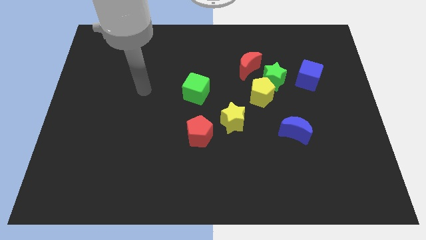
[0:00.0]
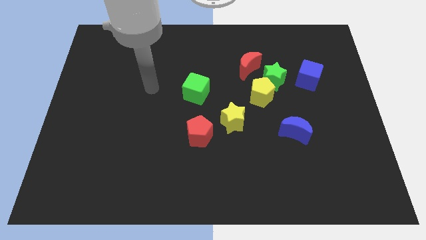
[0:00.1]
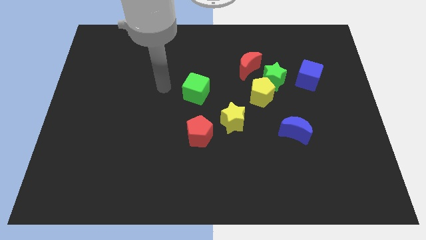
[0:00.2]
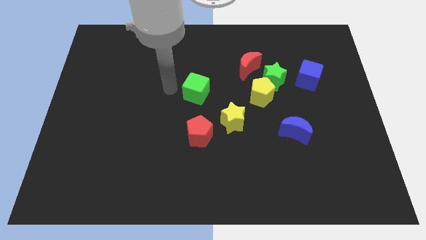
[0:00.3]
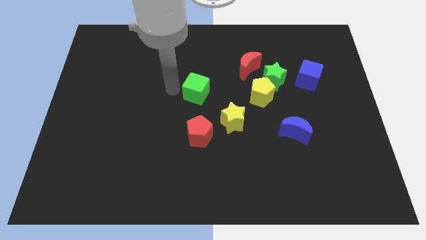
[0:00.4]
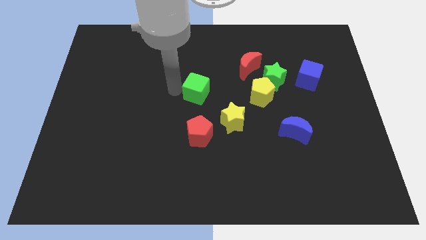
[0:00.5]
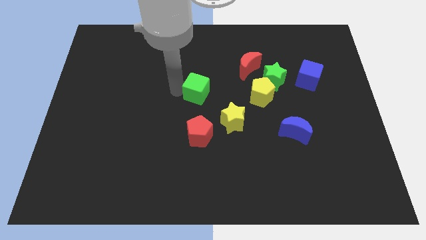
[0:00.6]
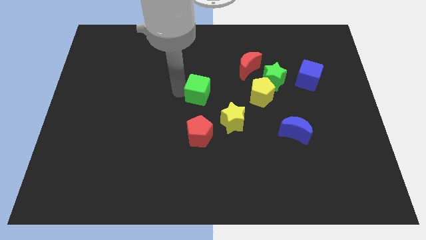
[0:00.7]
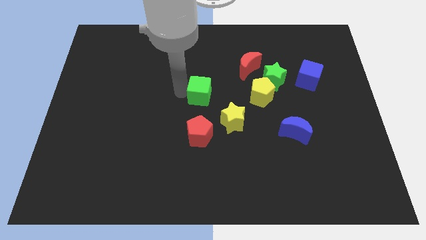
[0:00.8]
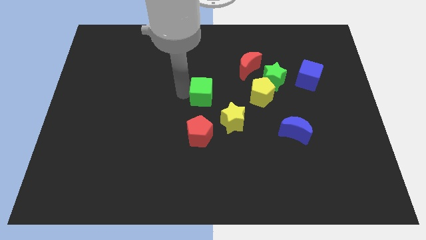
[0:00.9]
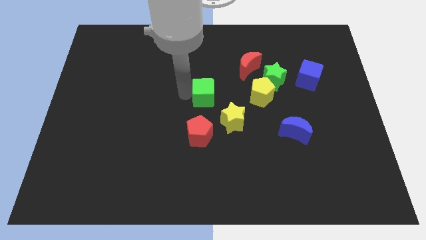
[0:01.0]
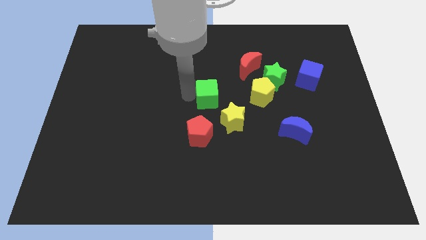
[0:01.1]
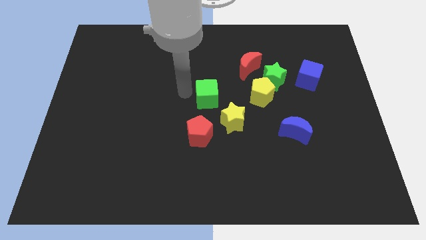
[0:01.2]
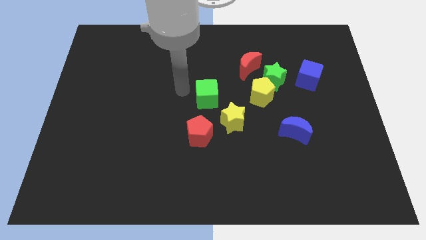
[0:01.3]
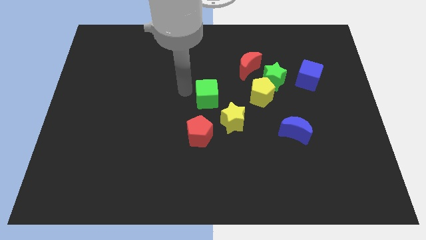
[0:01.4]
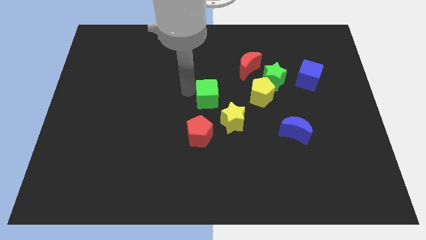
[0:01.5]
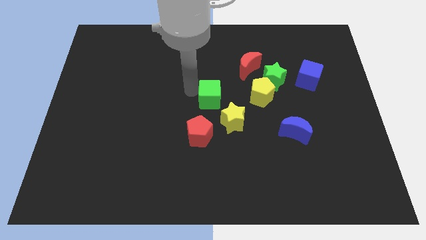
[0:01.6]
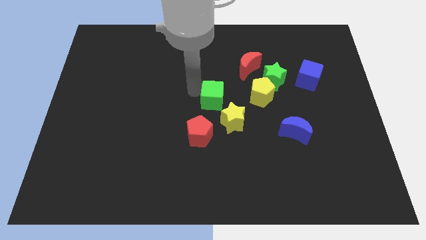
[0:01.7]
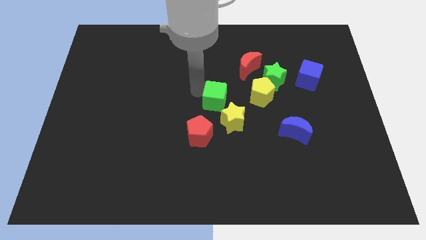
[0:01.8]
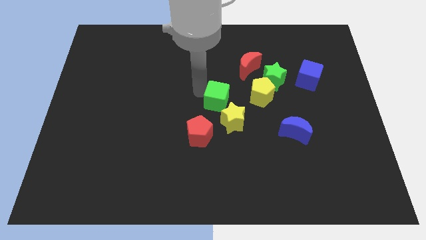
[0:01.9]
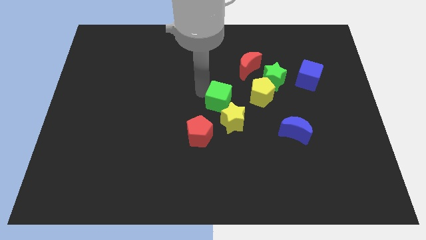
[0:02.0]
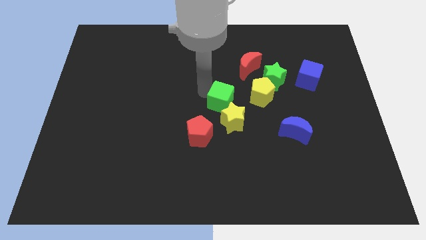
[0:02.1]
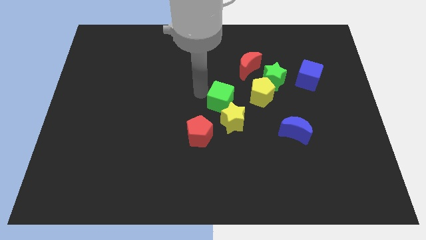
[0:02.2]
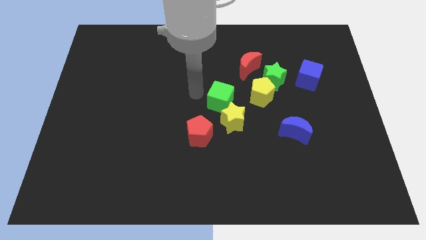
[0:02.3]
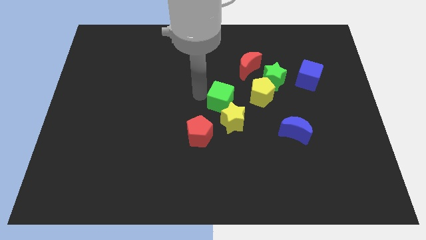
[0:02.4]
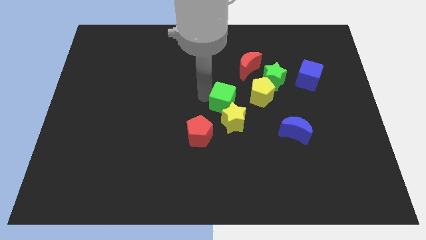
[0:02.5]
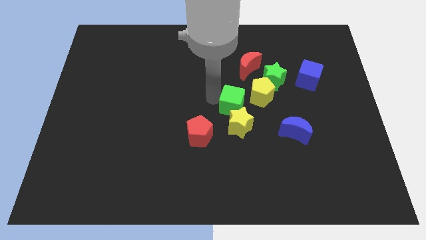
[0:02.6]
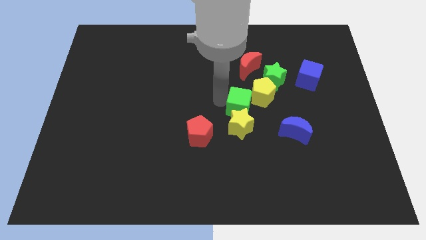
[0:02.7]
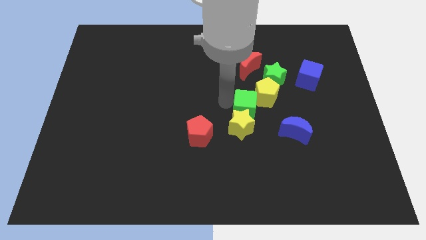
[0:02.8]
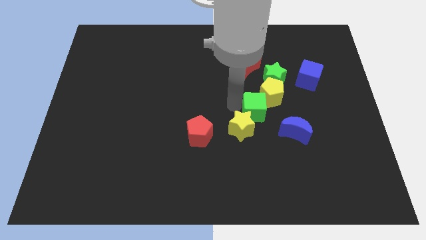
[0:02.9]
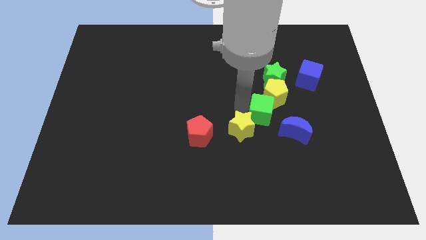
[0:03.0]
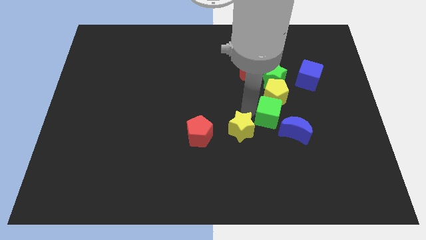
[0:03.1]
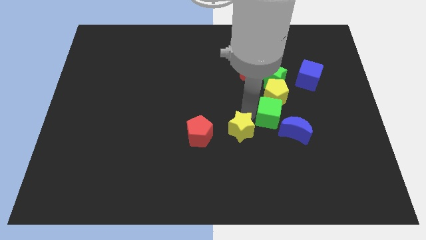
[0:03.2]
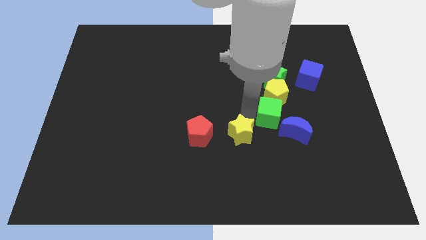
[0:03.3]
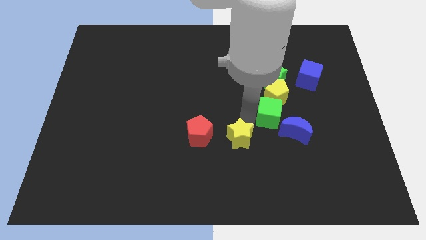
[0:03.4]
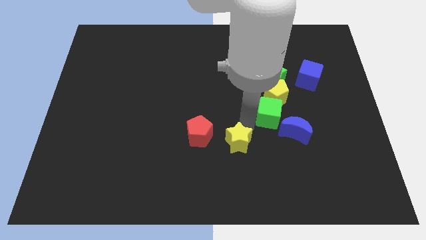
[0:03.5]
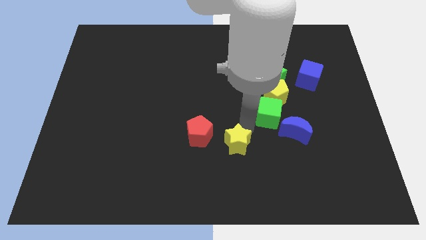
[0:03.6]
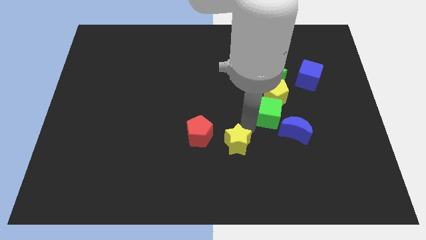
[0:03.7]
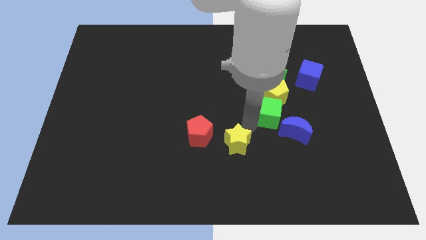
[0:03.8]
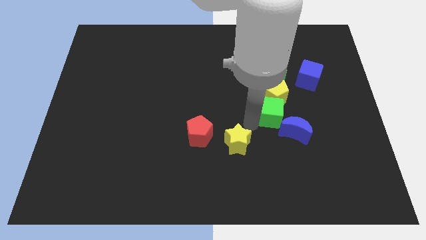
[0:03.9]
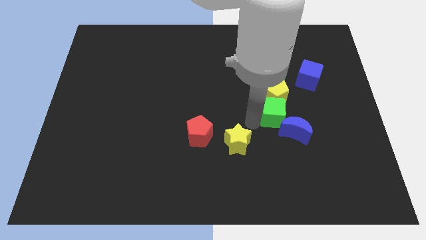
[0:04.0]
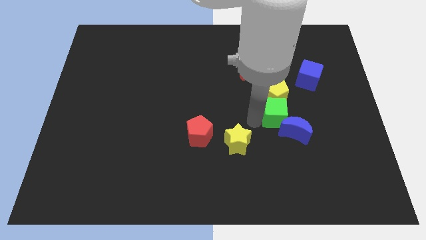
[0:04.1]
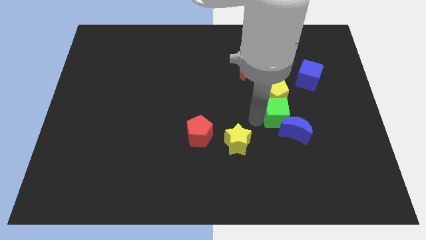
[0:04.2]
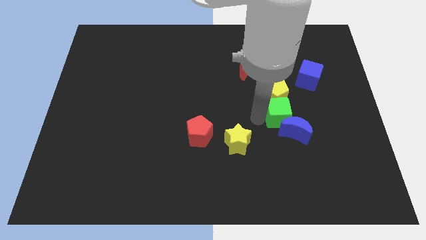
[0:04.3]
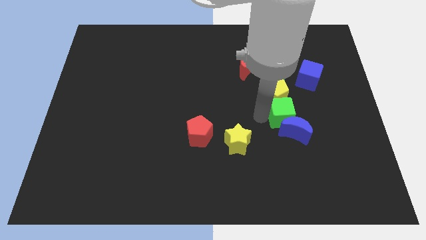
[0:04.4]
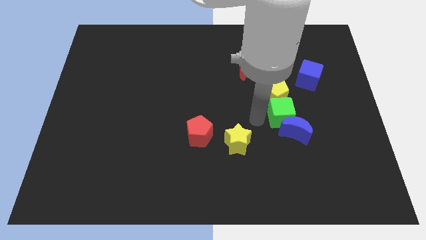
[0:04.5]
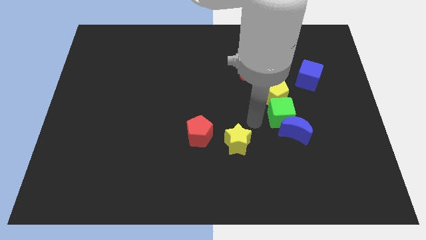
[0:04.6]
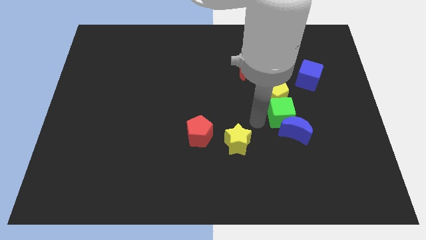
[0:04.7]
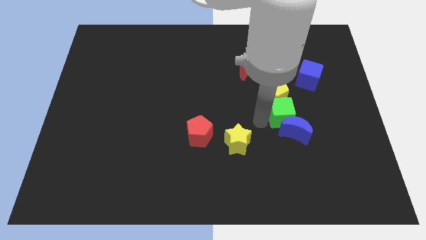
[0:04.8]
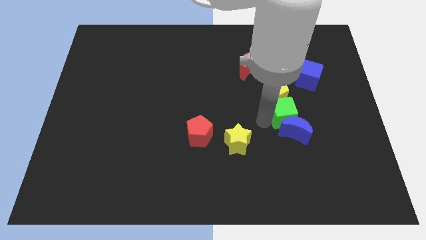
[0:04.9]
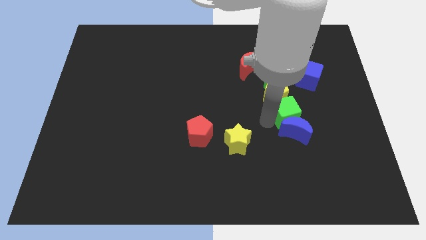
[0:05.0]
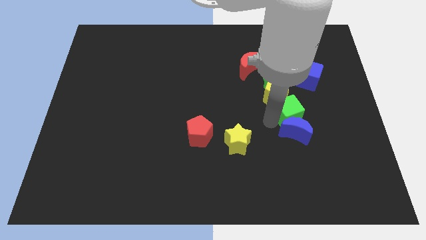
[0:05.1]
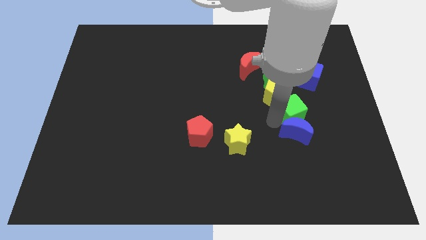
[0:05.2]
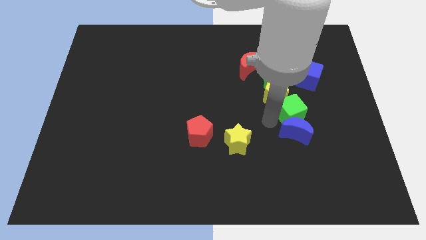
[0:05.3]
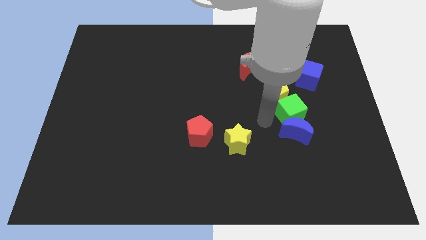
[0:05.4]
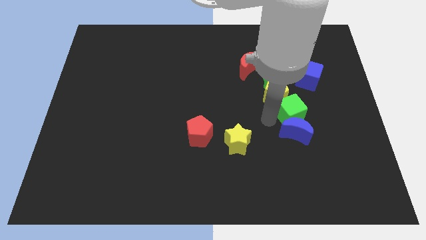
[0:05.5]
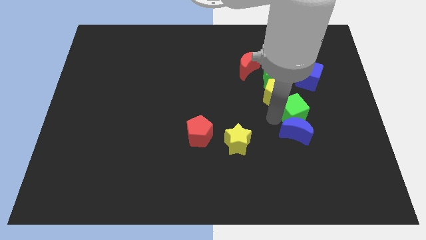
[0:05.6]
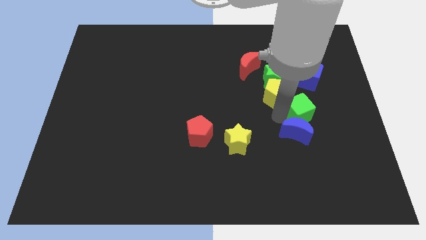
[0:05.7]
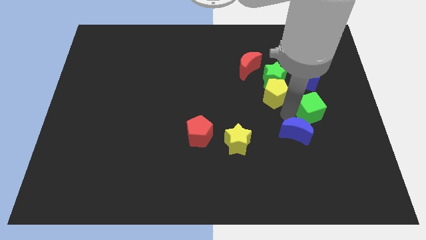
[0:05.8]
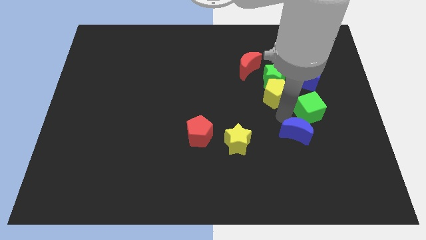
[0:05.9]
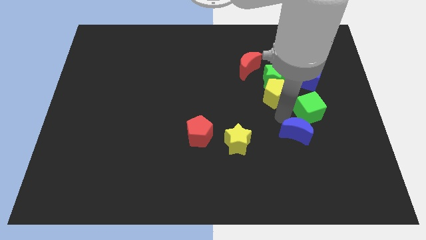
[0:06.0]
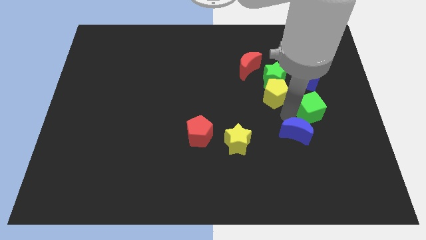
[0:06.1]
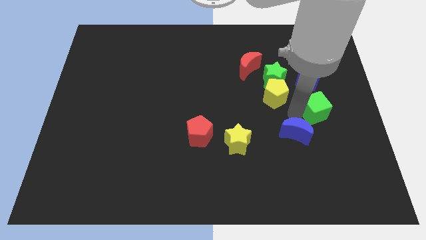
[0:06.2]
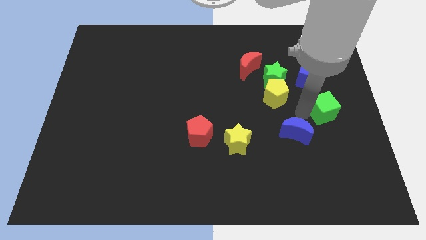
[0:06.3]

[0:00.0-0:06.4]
move the green cube to the right side of the board

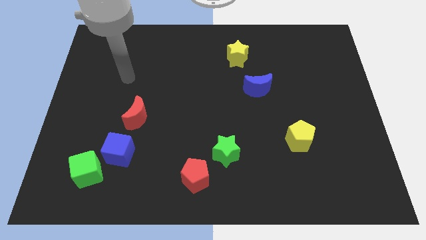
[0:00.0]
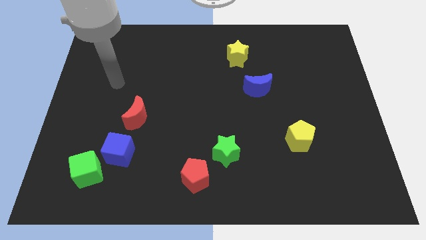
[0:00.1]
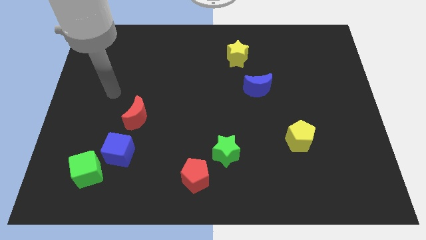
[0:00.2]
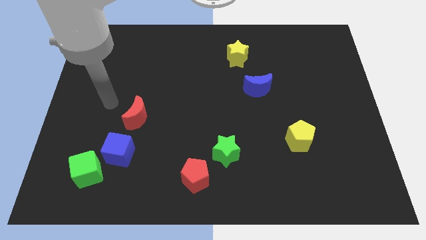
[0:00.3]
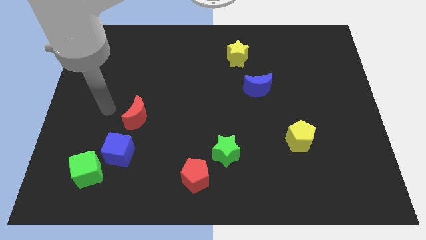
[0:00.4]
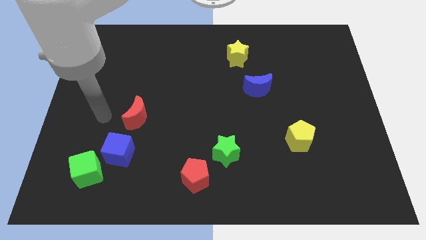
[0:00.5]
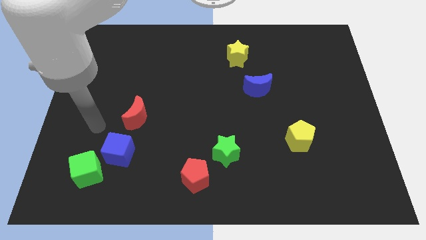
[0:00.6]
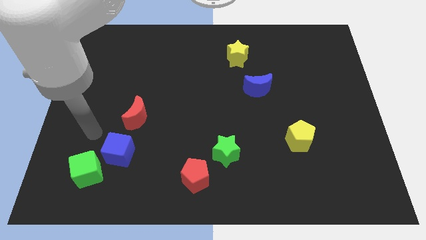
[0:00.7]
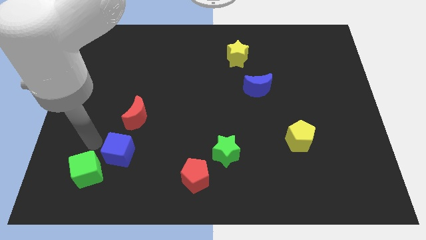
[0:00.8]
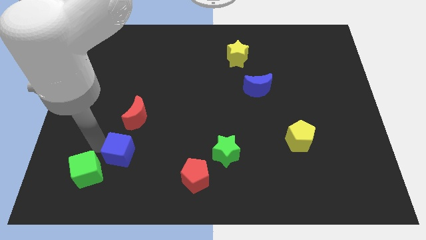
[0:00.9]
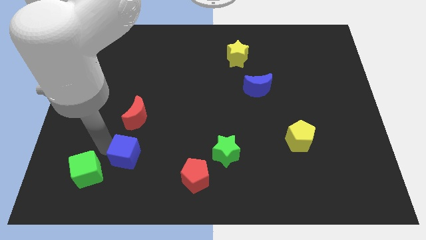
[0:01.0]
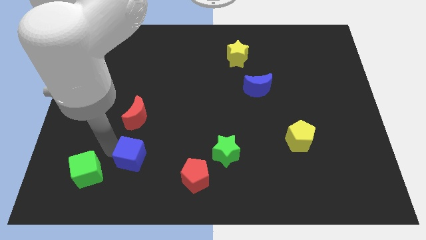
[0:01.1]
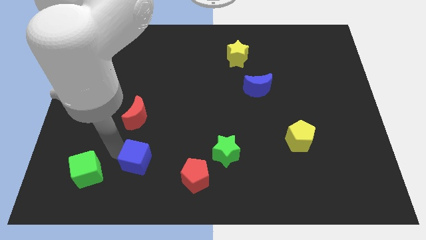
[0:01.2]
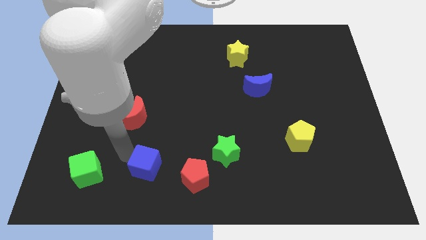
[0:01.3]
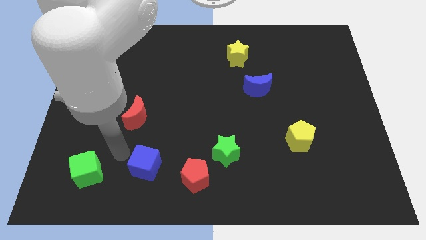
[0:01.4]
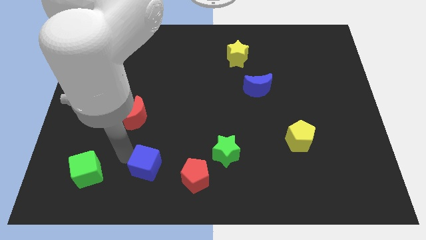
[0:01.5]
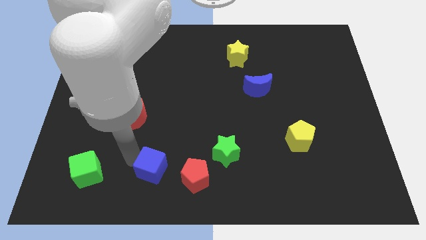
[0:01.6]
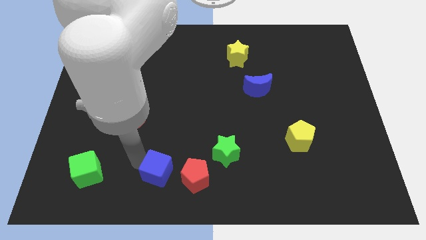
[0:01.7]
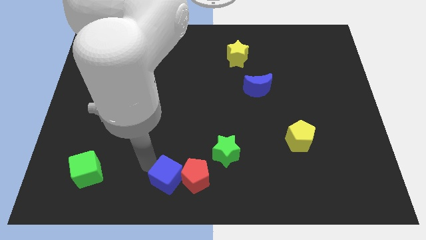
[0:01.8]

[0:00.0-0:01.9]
move the blue cube to the bottom side
